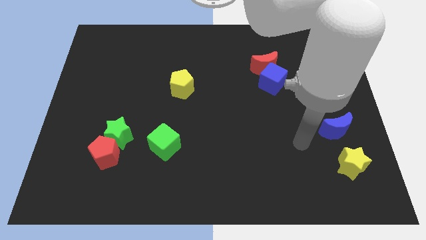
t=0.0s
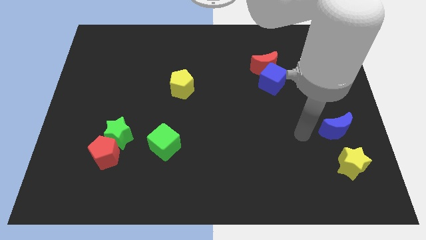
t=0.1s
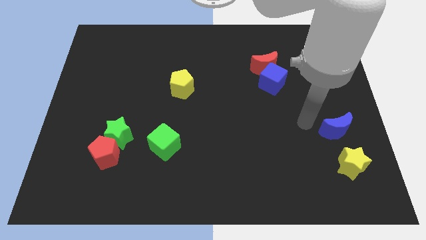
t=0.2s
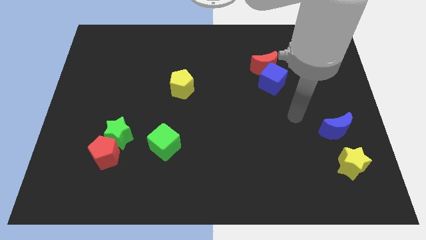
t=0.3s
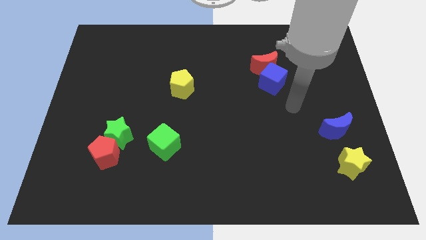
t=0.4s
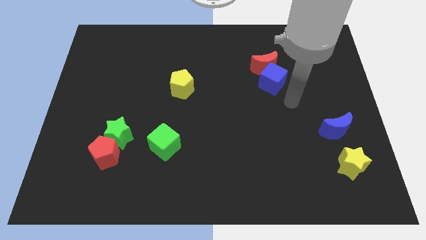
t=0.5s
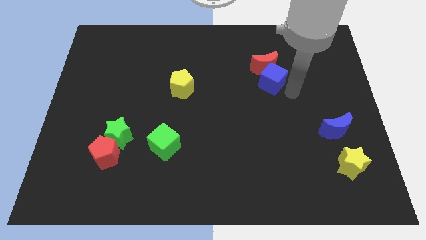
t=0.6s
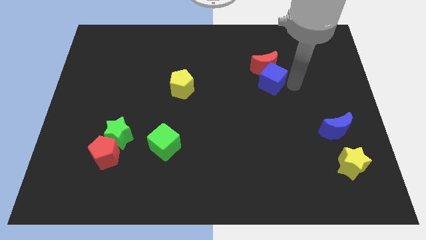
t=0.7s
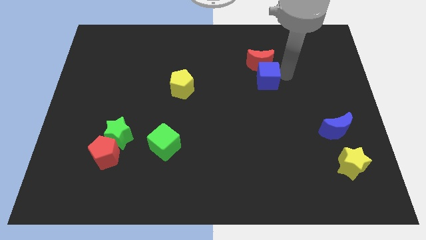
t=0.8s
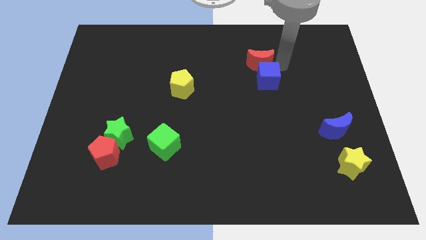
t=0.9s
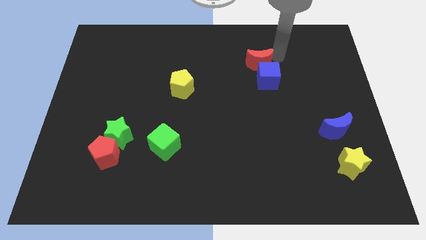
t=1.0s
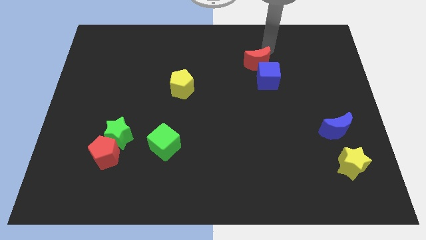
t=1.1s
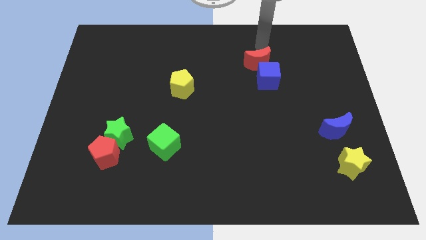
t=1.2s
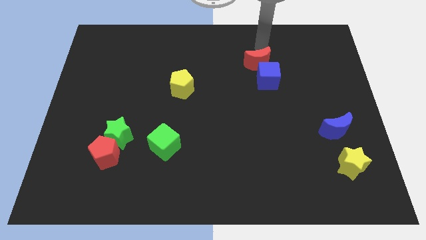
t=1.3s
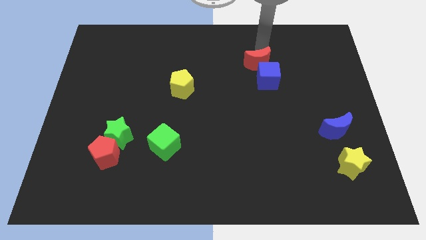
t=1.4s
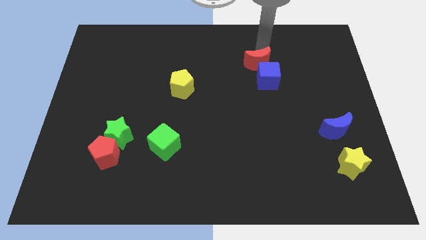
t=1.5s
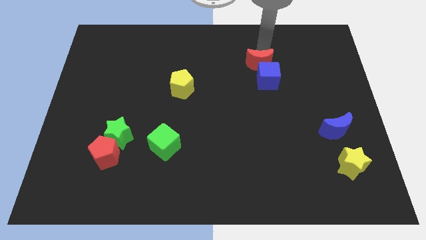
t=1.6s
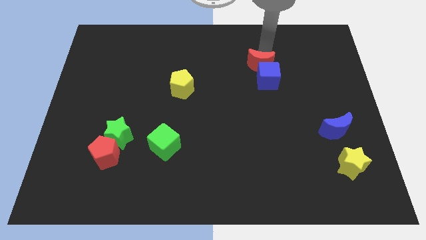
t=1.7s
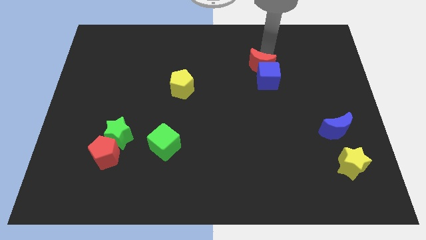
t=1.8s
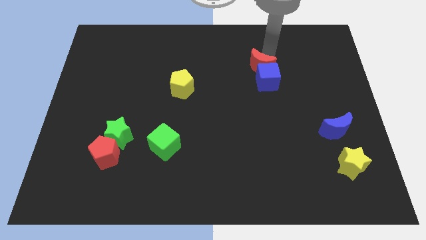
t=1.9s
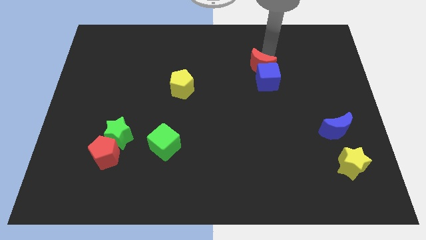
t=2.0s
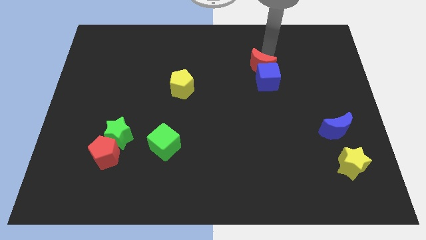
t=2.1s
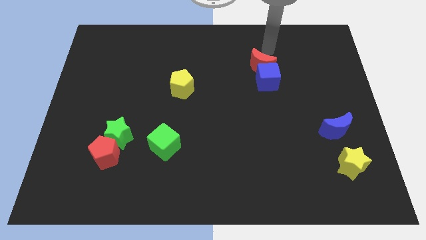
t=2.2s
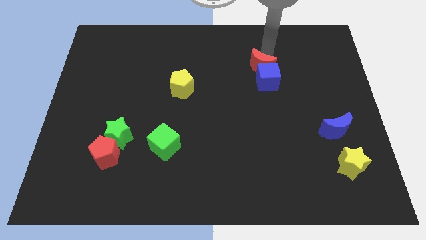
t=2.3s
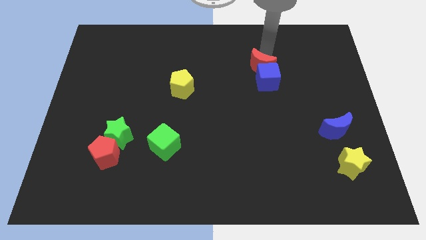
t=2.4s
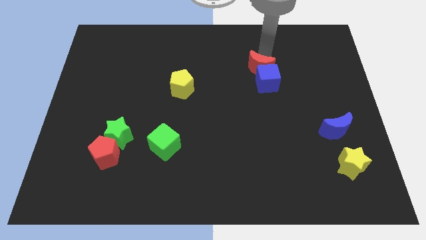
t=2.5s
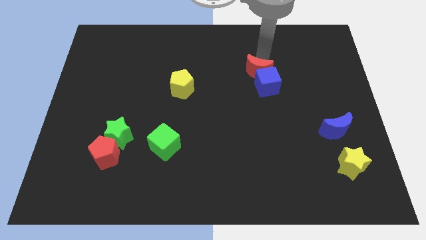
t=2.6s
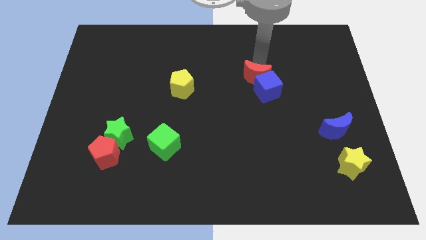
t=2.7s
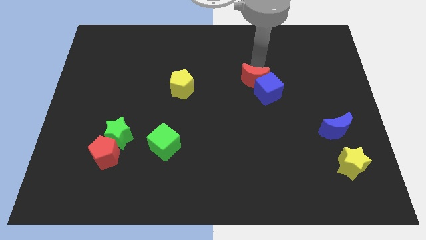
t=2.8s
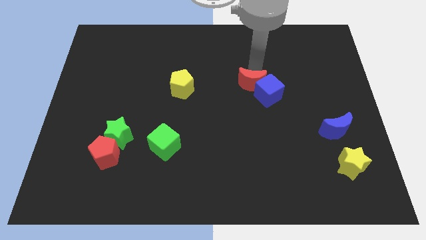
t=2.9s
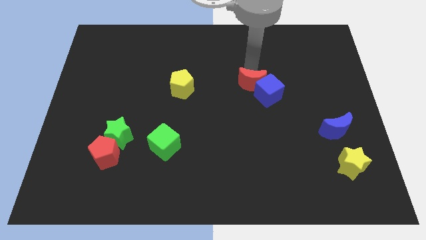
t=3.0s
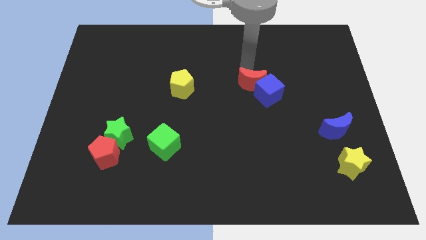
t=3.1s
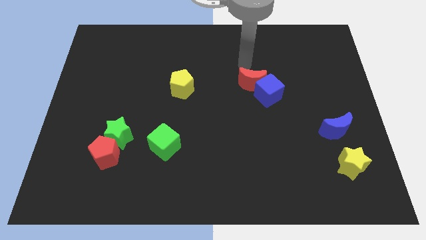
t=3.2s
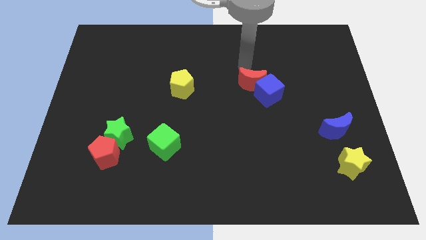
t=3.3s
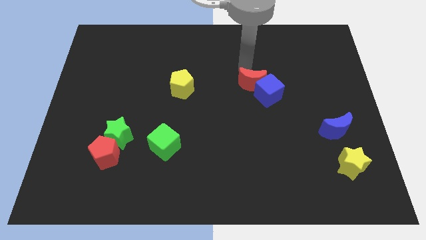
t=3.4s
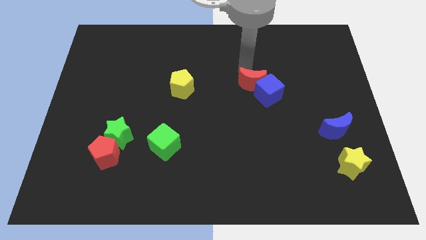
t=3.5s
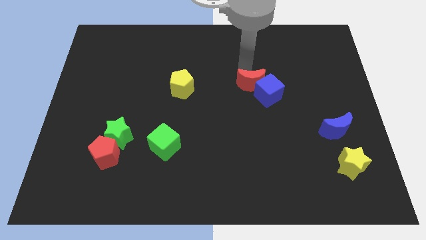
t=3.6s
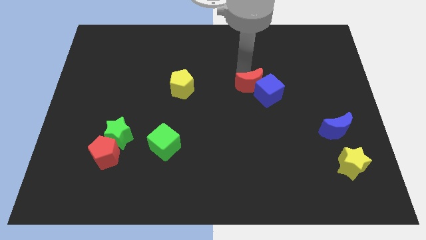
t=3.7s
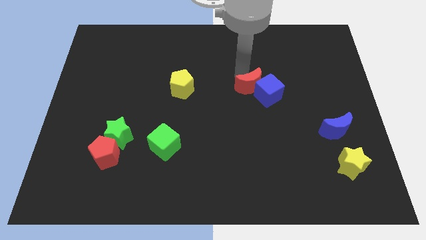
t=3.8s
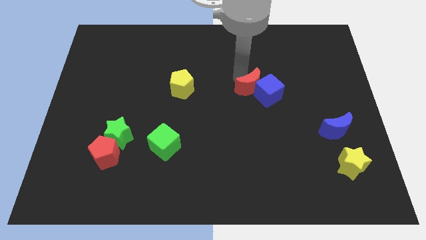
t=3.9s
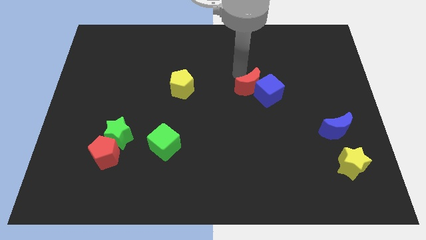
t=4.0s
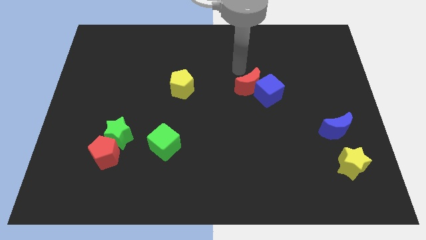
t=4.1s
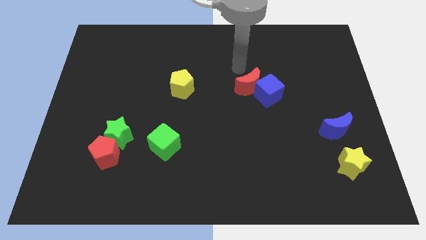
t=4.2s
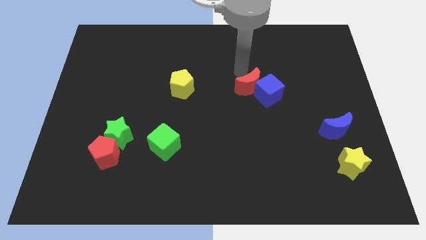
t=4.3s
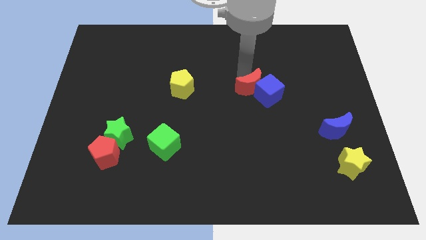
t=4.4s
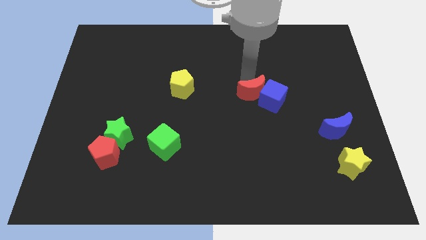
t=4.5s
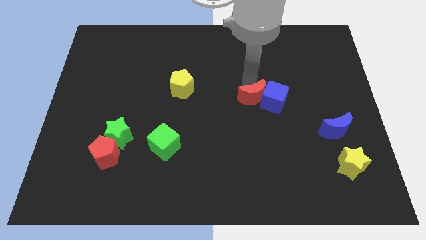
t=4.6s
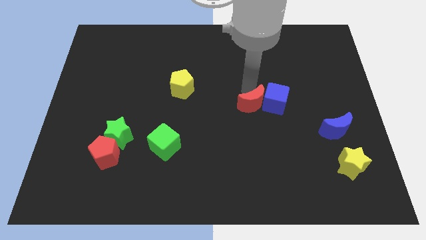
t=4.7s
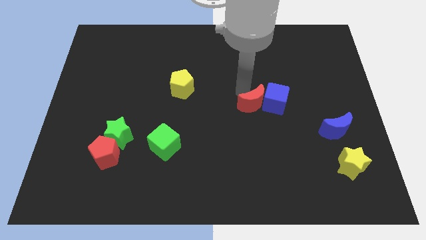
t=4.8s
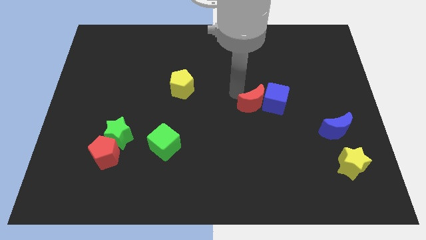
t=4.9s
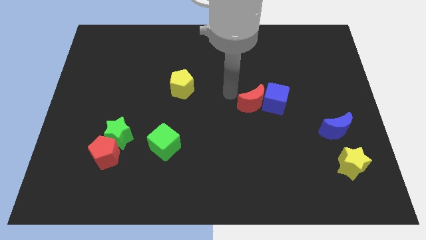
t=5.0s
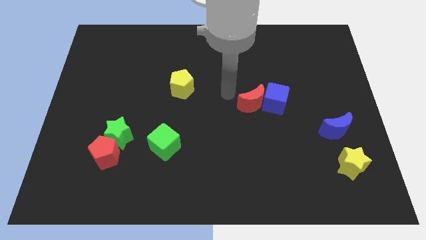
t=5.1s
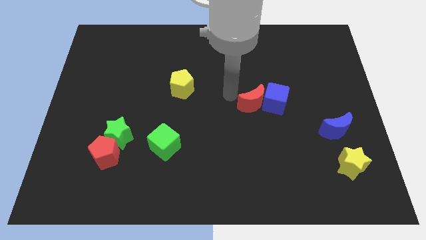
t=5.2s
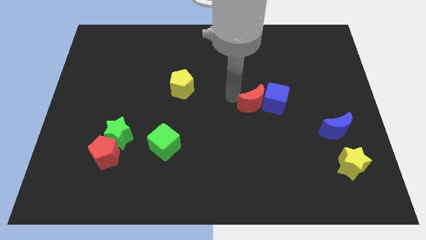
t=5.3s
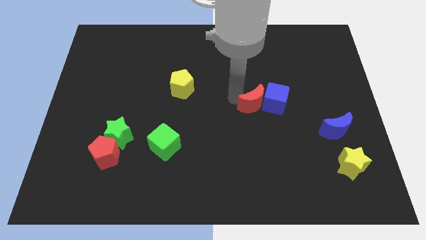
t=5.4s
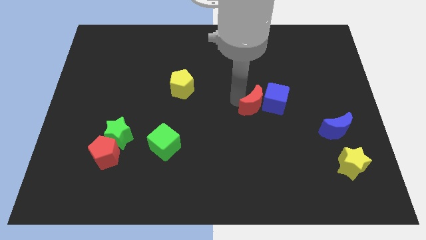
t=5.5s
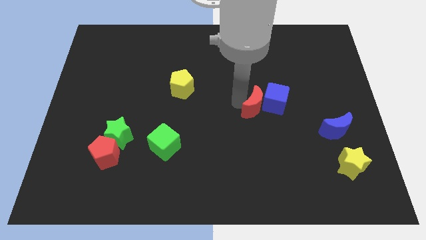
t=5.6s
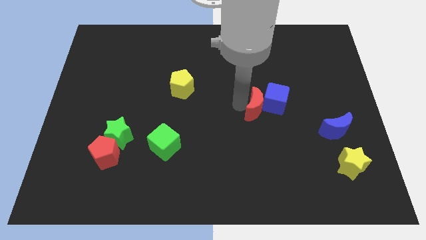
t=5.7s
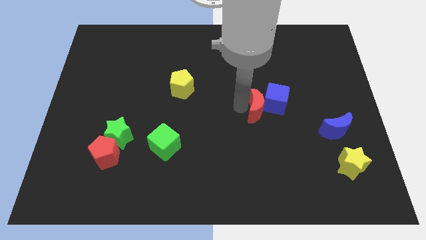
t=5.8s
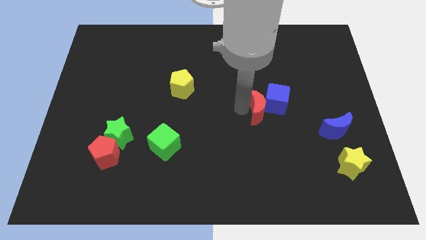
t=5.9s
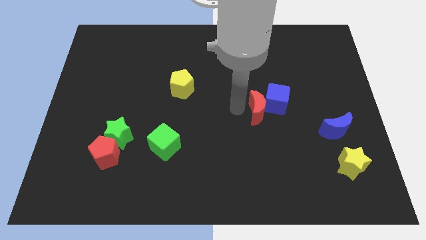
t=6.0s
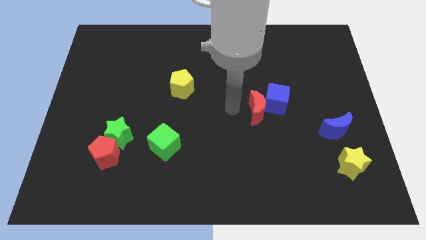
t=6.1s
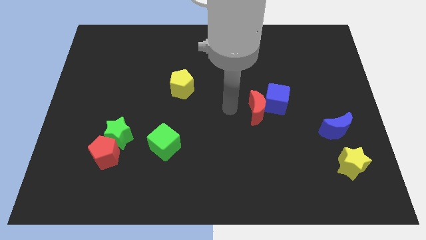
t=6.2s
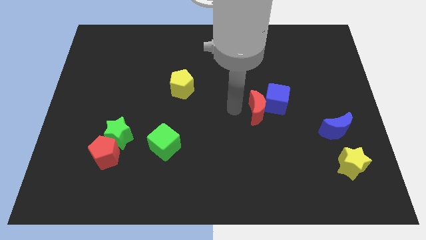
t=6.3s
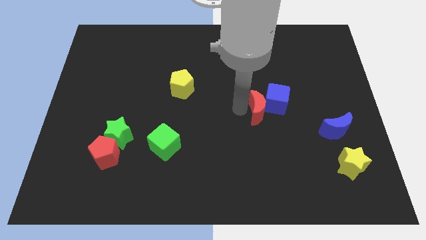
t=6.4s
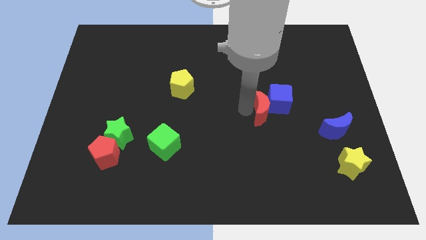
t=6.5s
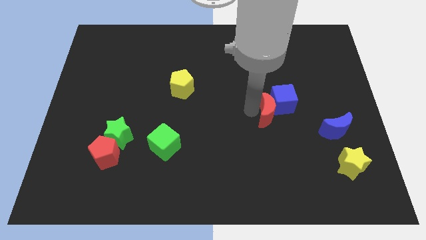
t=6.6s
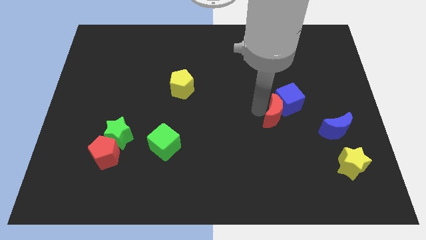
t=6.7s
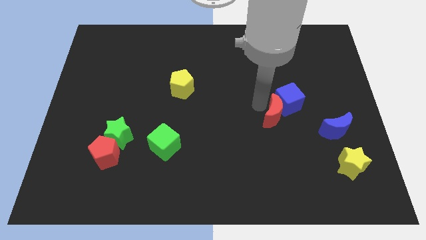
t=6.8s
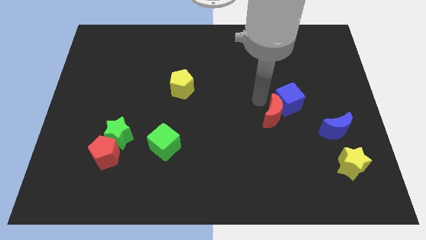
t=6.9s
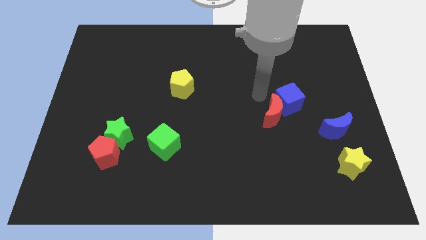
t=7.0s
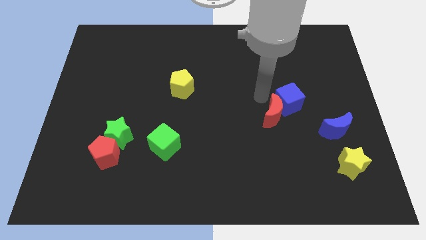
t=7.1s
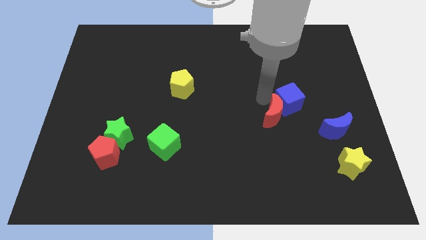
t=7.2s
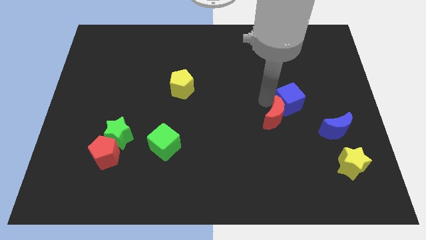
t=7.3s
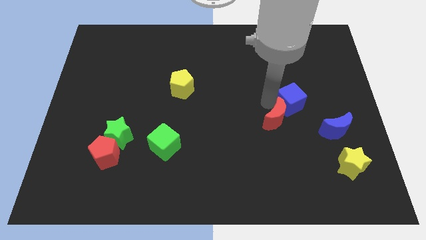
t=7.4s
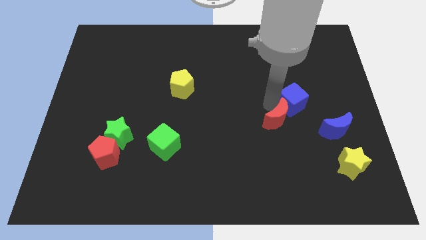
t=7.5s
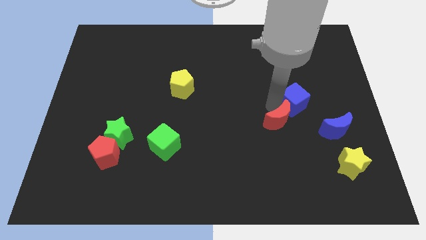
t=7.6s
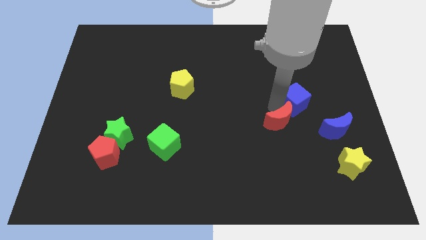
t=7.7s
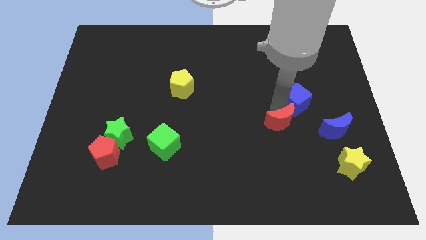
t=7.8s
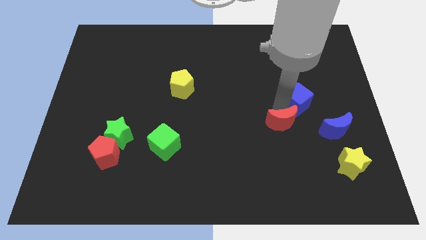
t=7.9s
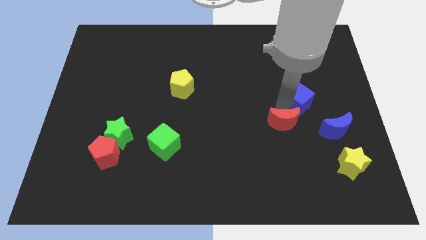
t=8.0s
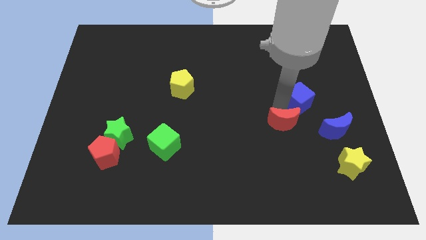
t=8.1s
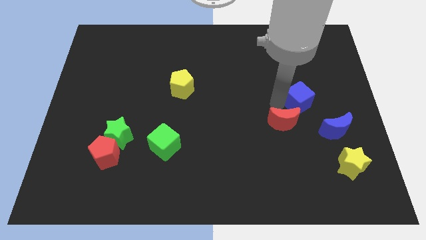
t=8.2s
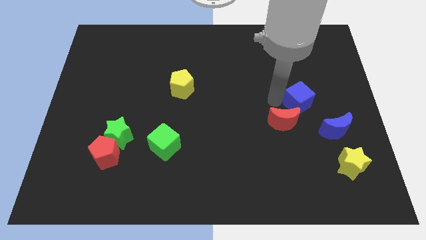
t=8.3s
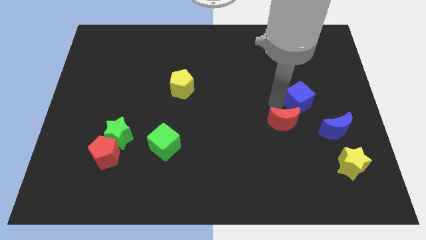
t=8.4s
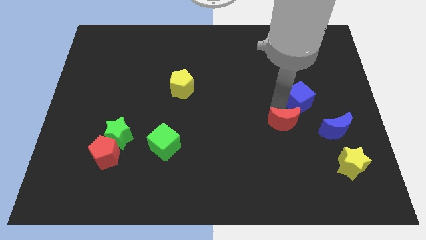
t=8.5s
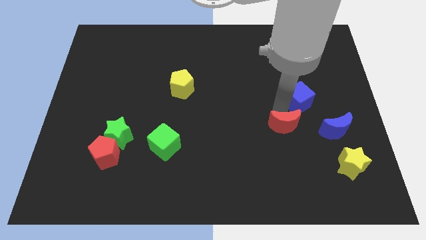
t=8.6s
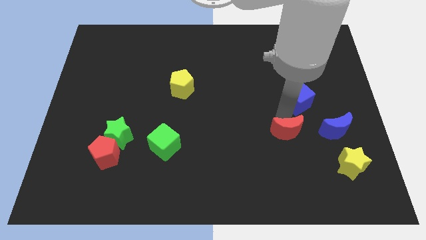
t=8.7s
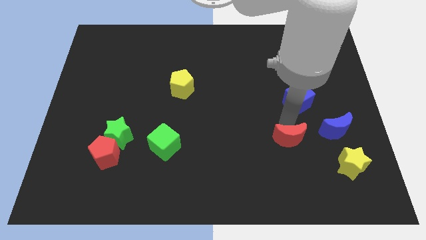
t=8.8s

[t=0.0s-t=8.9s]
push the red moon downwards
